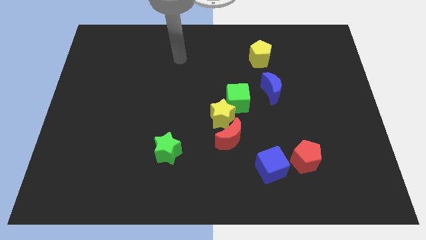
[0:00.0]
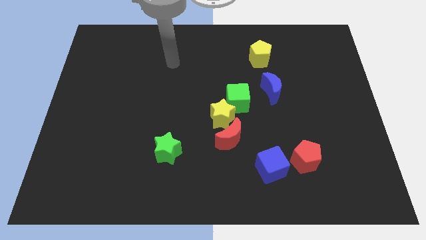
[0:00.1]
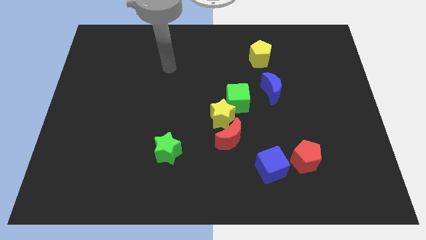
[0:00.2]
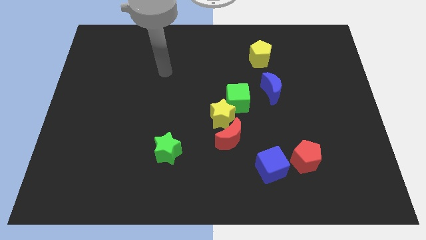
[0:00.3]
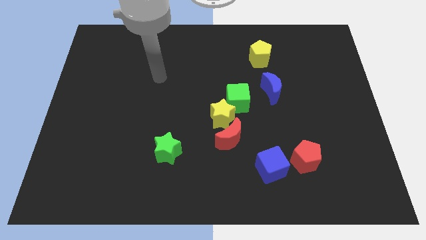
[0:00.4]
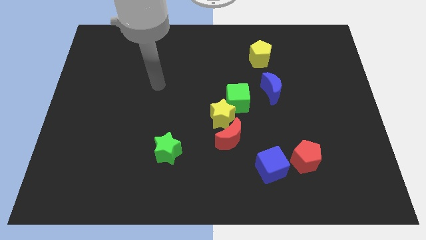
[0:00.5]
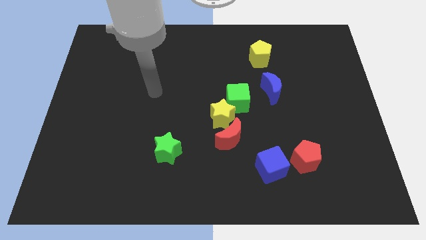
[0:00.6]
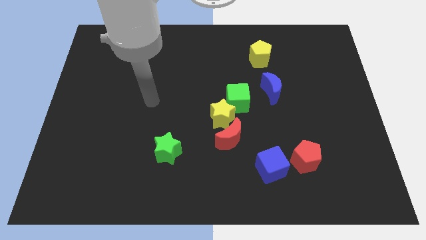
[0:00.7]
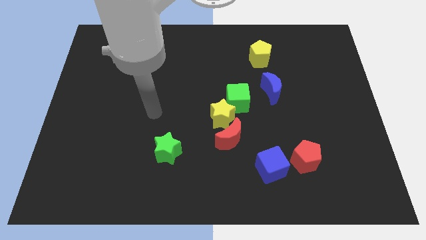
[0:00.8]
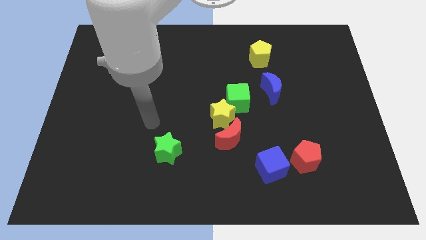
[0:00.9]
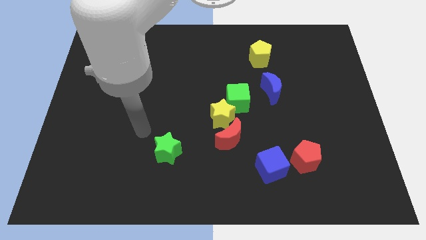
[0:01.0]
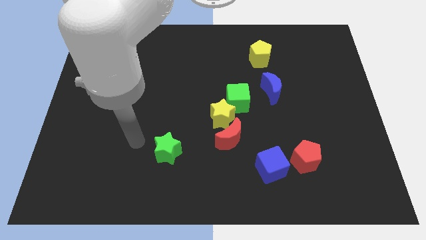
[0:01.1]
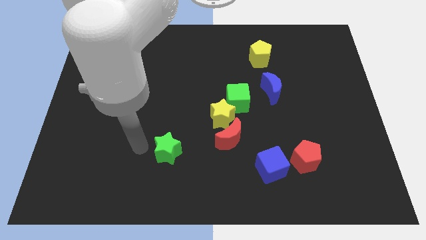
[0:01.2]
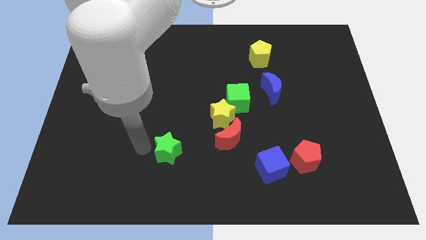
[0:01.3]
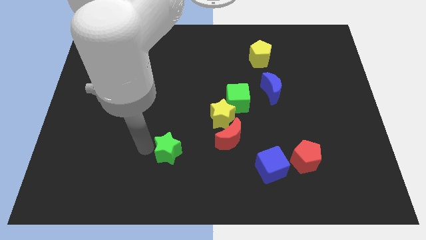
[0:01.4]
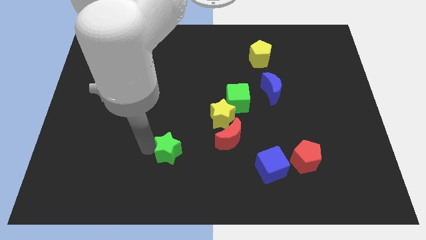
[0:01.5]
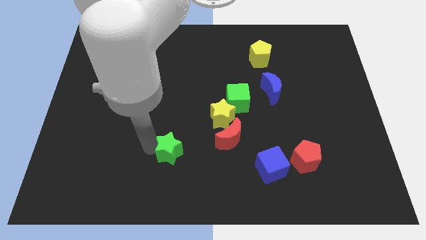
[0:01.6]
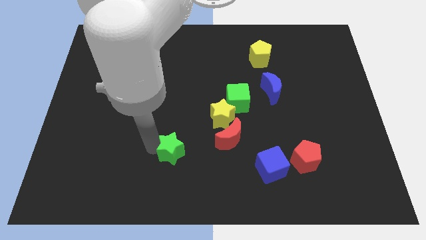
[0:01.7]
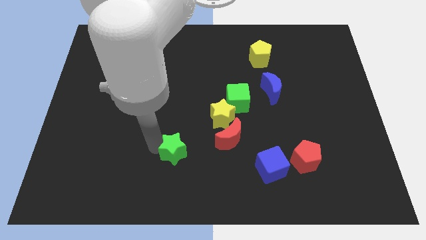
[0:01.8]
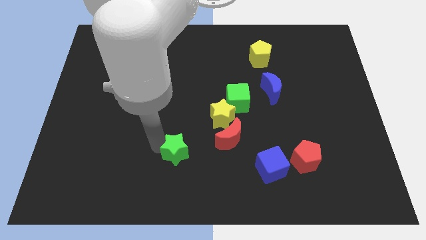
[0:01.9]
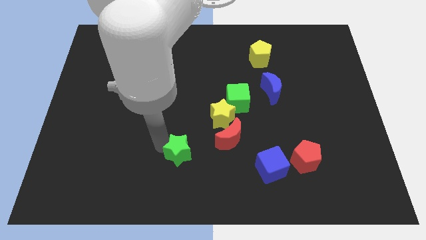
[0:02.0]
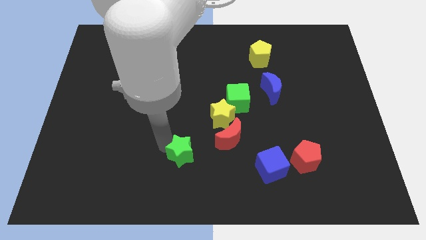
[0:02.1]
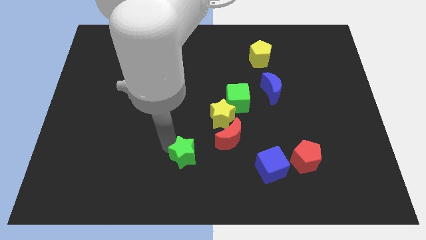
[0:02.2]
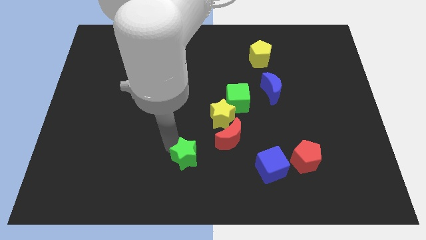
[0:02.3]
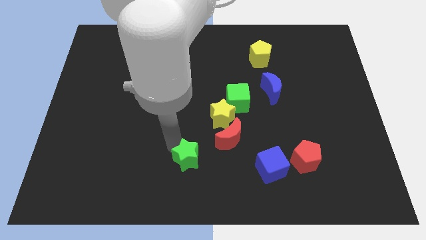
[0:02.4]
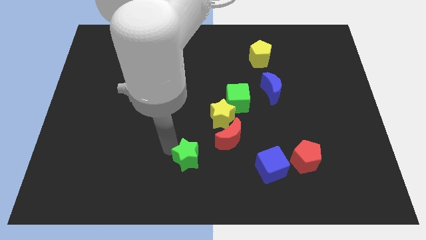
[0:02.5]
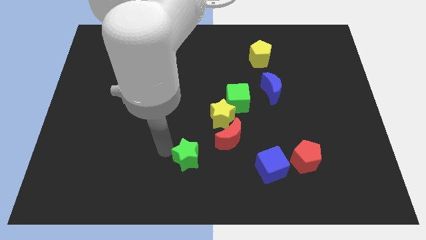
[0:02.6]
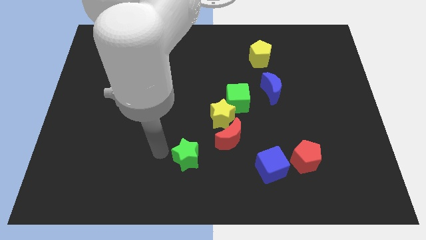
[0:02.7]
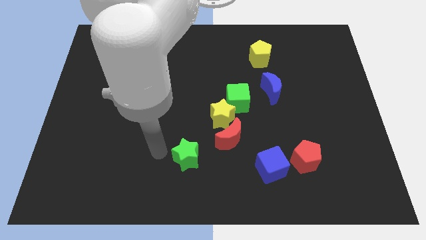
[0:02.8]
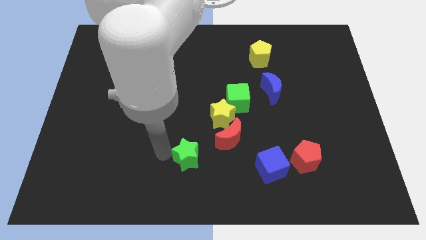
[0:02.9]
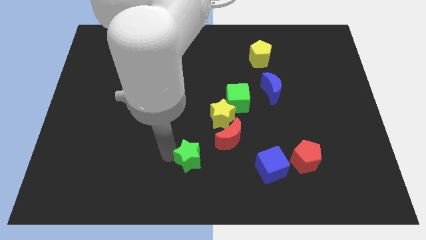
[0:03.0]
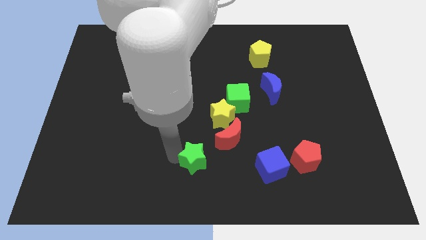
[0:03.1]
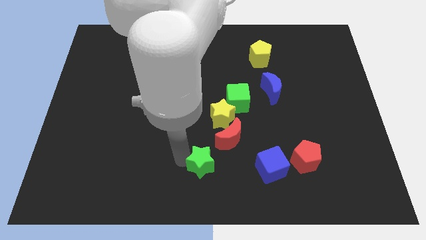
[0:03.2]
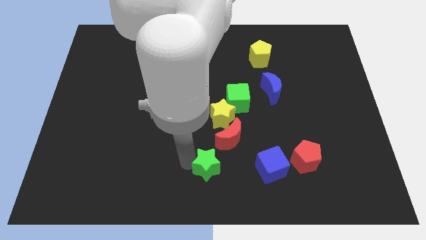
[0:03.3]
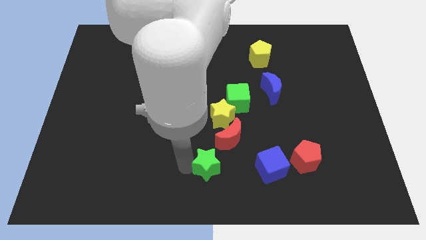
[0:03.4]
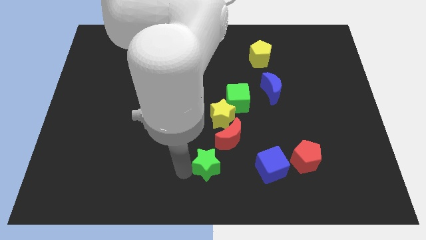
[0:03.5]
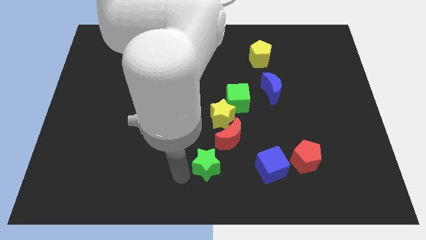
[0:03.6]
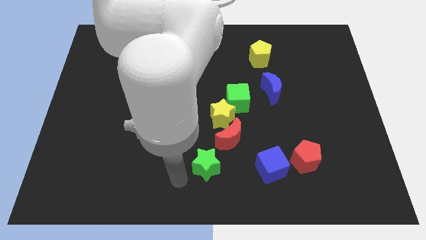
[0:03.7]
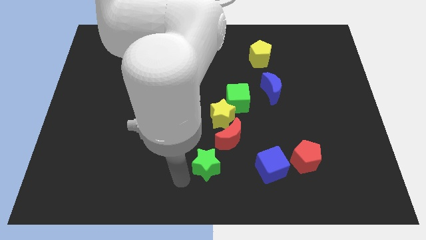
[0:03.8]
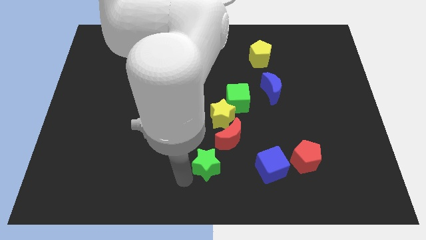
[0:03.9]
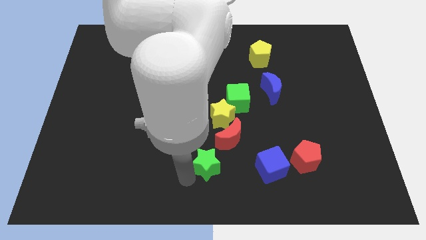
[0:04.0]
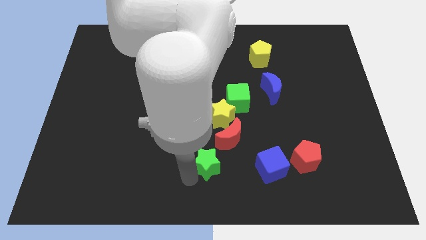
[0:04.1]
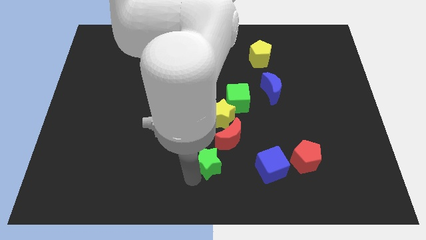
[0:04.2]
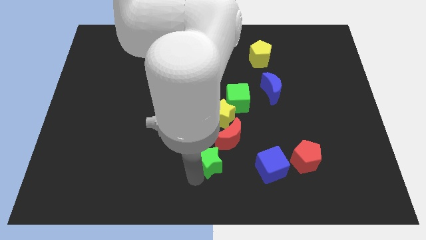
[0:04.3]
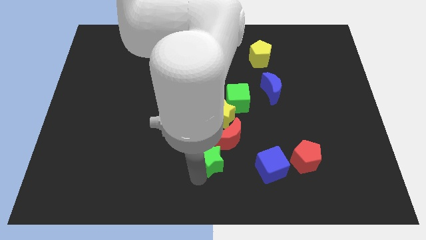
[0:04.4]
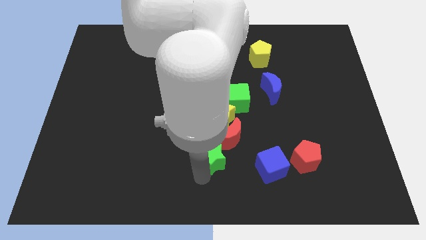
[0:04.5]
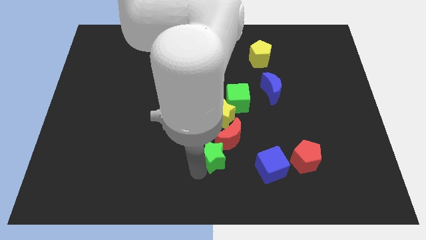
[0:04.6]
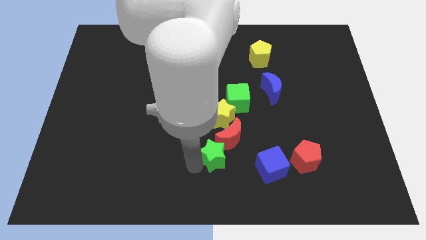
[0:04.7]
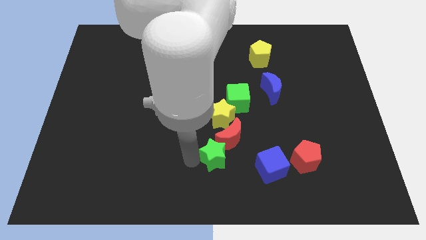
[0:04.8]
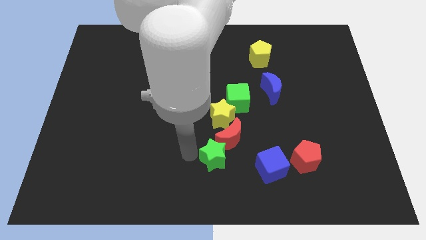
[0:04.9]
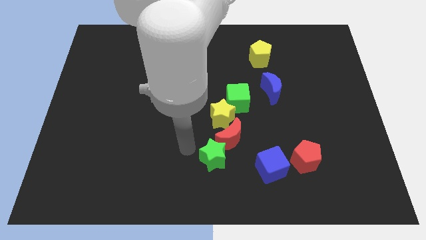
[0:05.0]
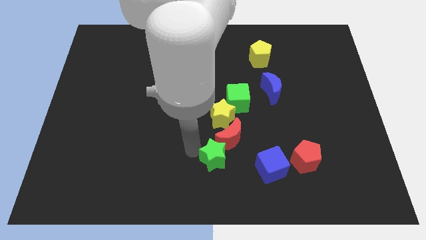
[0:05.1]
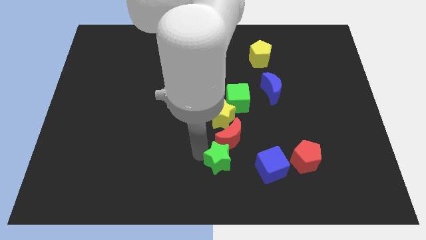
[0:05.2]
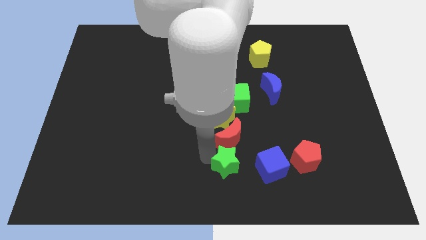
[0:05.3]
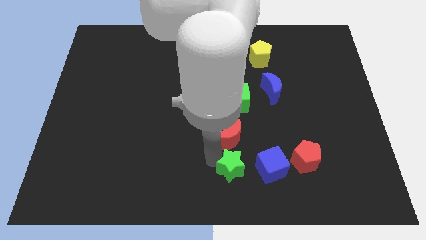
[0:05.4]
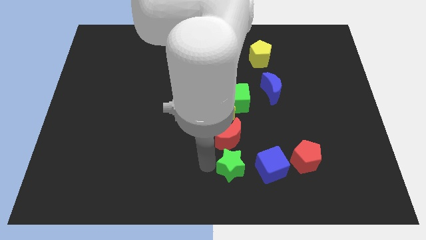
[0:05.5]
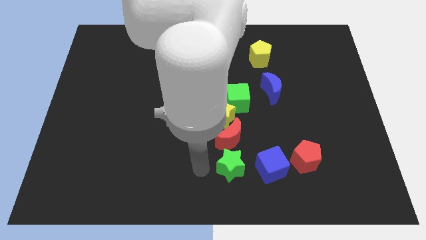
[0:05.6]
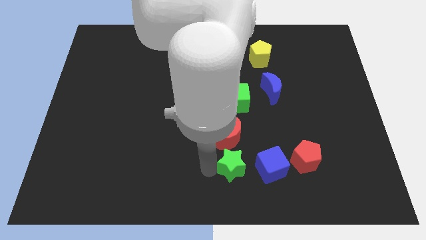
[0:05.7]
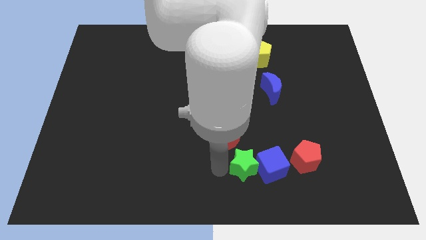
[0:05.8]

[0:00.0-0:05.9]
put the green star close to the blue cube

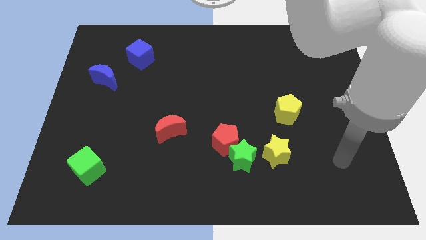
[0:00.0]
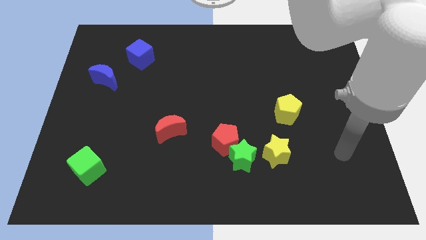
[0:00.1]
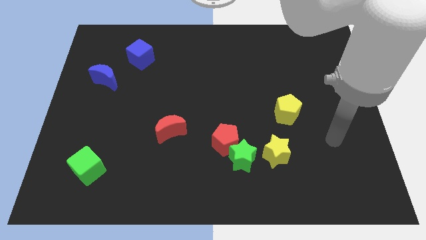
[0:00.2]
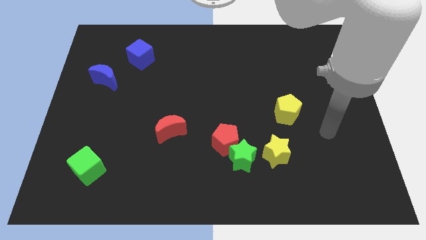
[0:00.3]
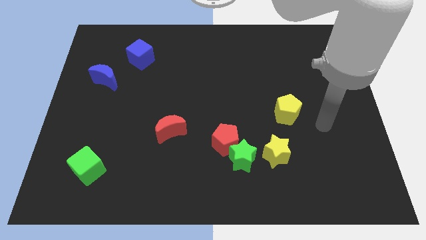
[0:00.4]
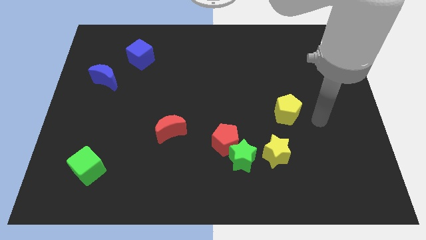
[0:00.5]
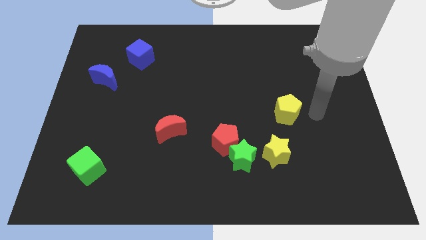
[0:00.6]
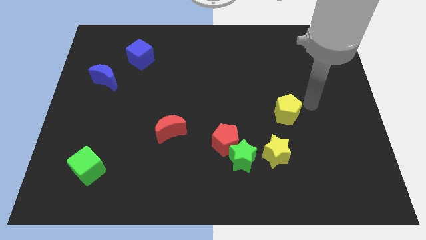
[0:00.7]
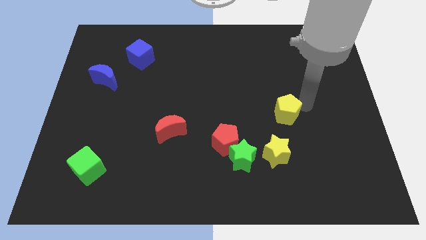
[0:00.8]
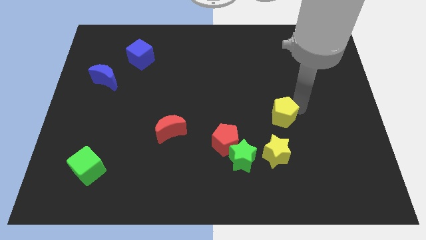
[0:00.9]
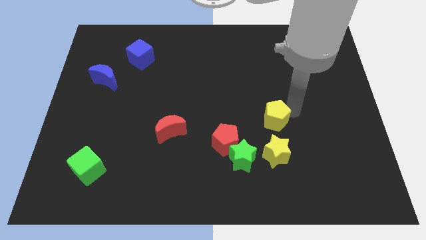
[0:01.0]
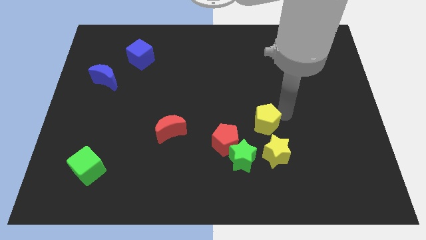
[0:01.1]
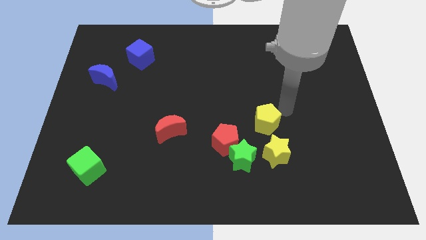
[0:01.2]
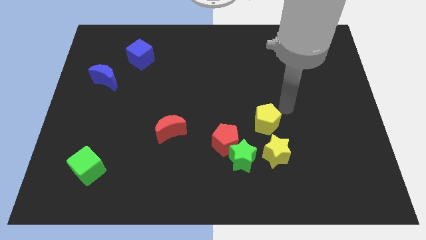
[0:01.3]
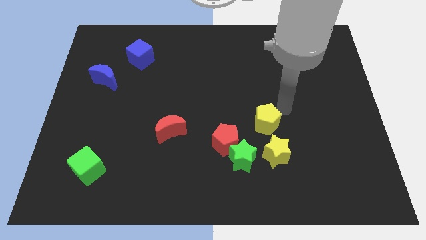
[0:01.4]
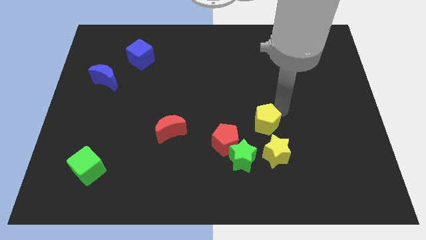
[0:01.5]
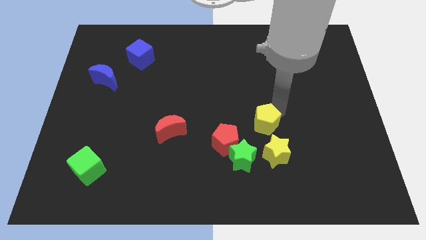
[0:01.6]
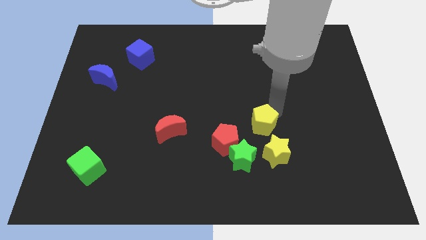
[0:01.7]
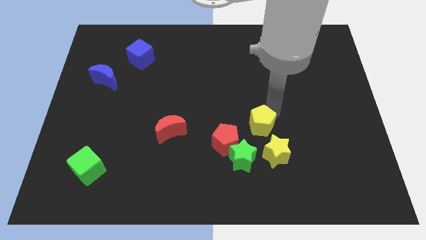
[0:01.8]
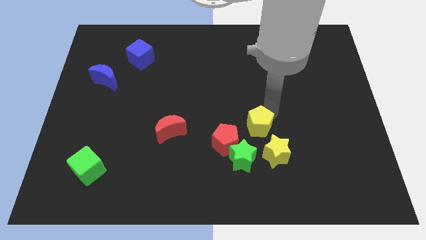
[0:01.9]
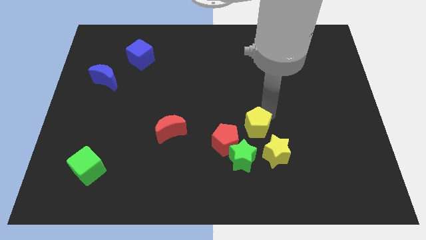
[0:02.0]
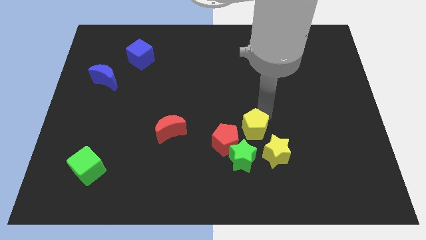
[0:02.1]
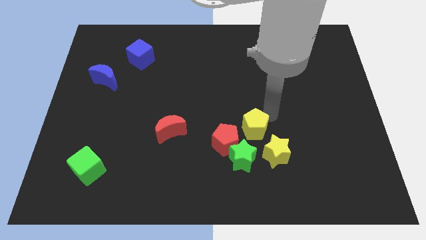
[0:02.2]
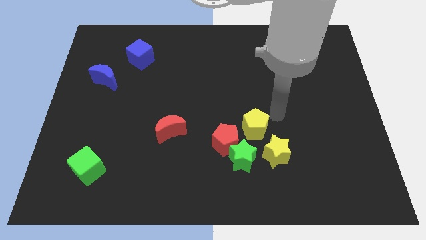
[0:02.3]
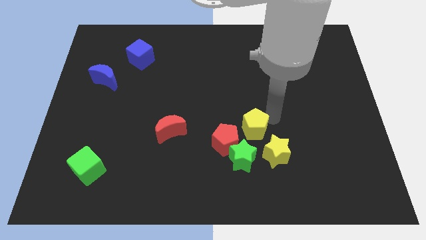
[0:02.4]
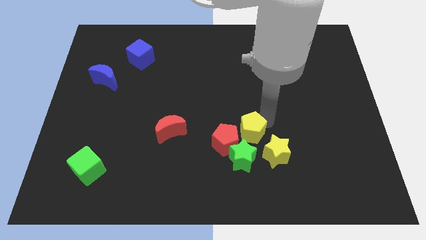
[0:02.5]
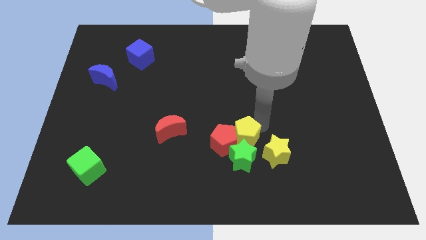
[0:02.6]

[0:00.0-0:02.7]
slide the yellow pentagon towards the red pentagon
